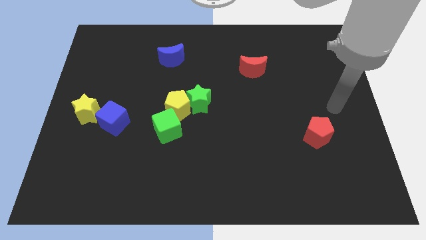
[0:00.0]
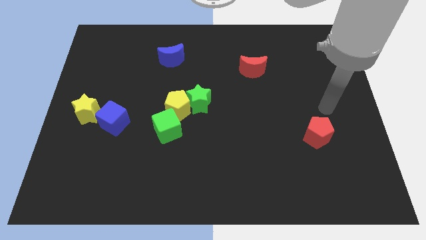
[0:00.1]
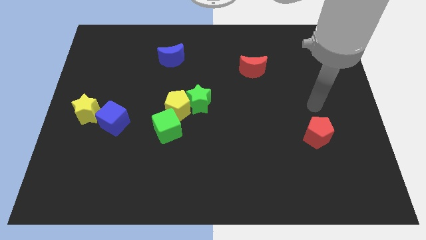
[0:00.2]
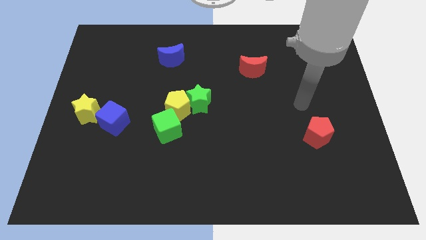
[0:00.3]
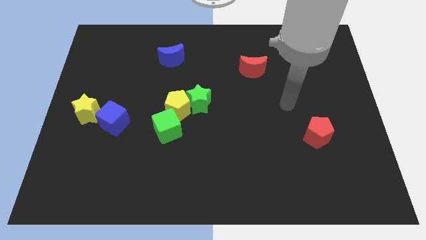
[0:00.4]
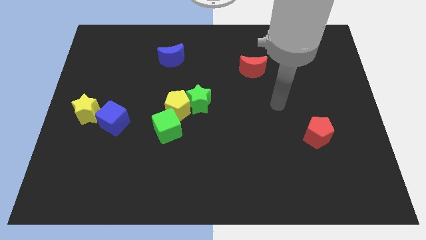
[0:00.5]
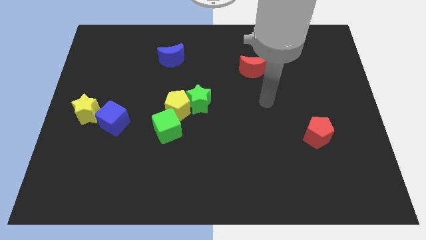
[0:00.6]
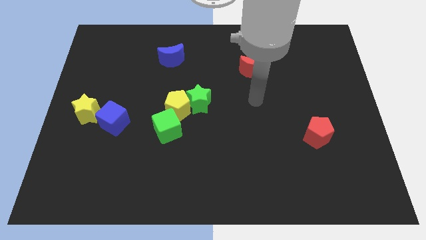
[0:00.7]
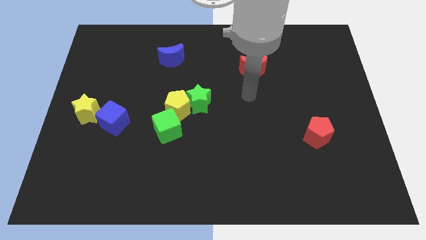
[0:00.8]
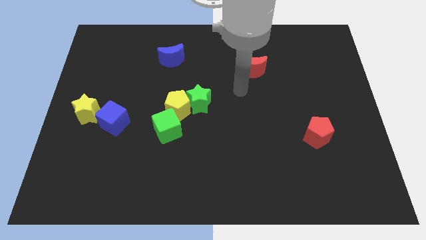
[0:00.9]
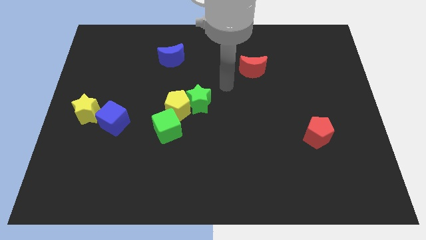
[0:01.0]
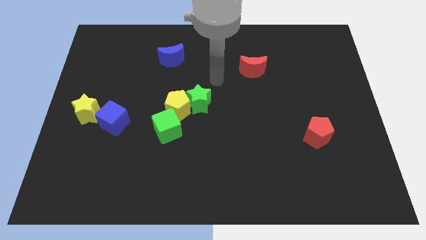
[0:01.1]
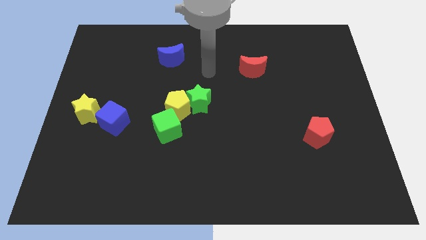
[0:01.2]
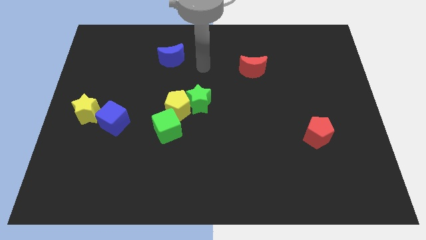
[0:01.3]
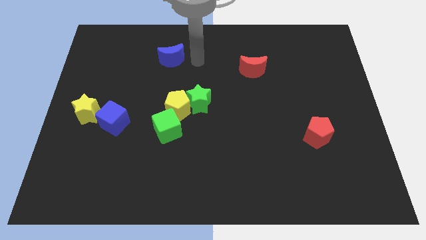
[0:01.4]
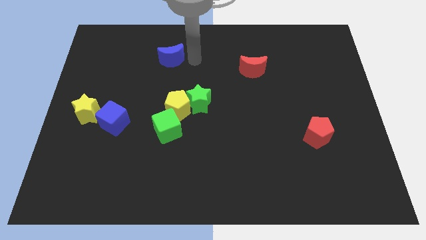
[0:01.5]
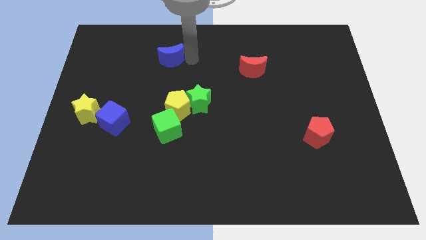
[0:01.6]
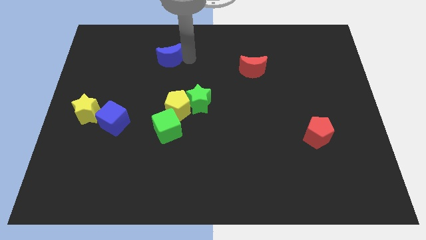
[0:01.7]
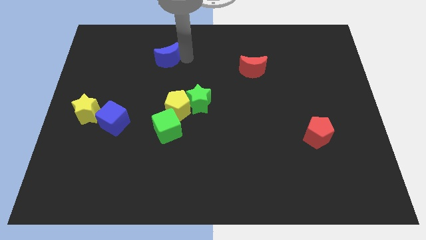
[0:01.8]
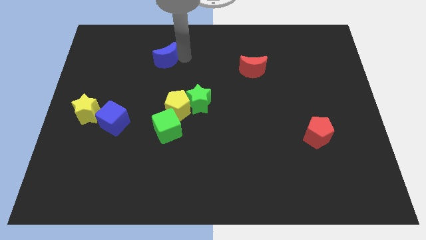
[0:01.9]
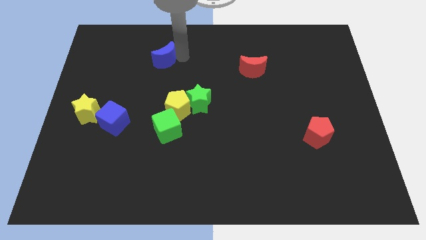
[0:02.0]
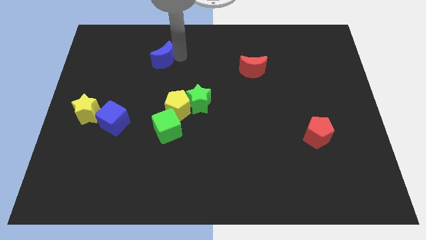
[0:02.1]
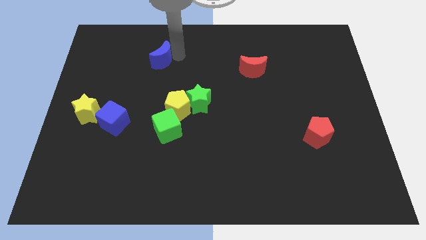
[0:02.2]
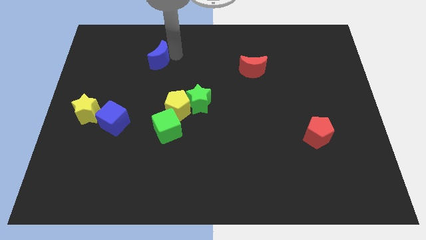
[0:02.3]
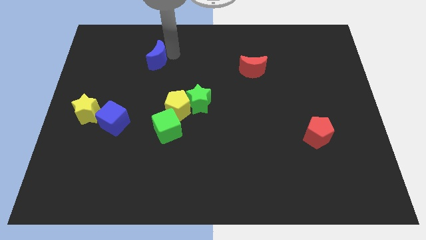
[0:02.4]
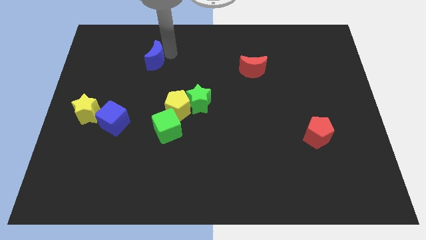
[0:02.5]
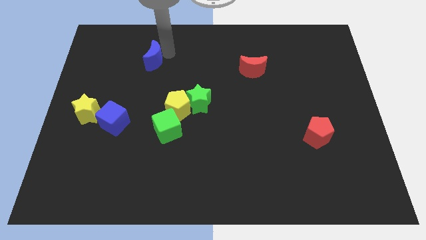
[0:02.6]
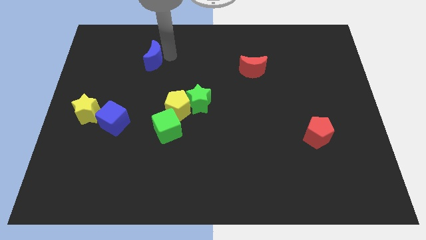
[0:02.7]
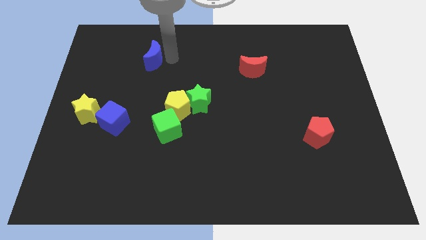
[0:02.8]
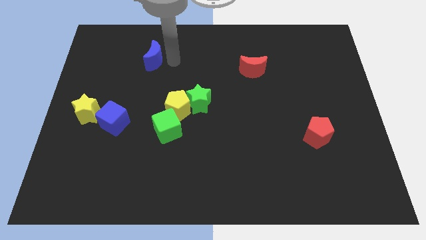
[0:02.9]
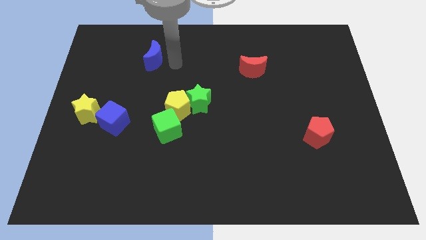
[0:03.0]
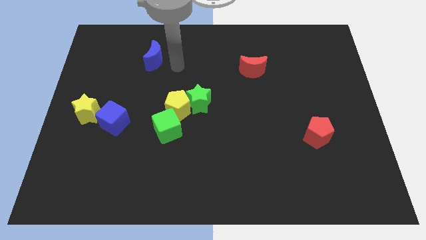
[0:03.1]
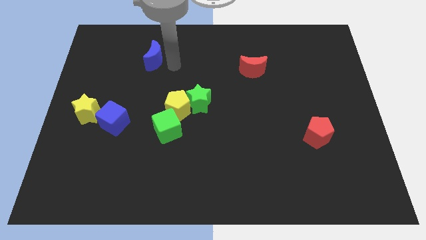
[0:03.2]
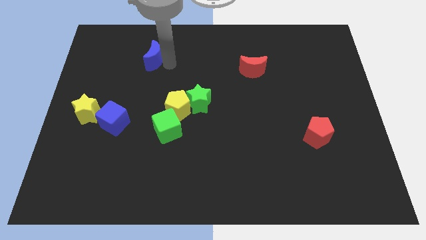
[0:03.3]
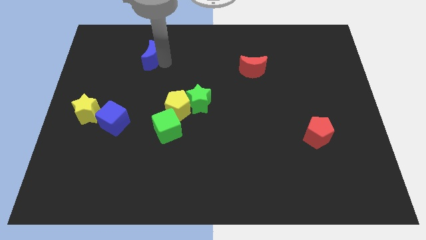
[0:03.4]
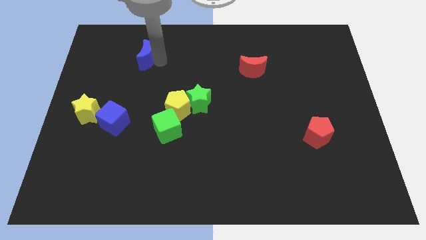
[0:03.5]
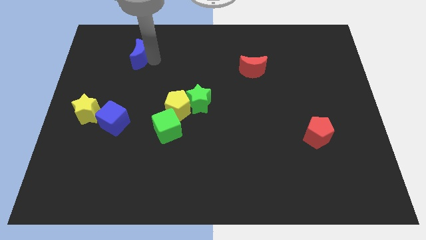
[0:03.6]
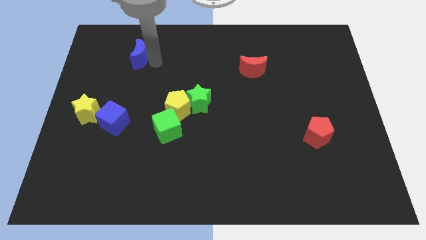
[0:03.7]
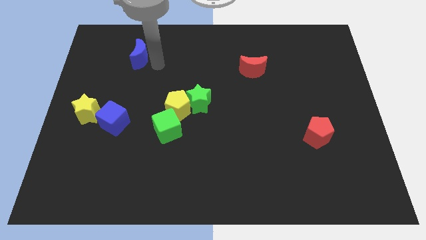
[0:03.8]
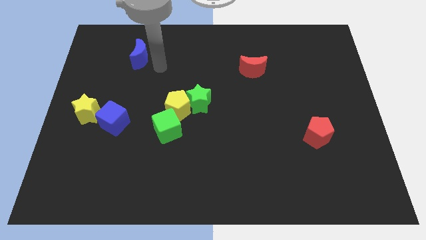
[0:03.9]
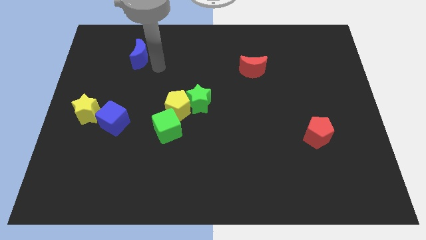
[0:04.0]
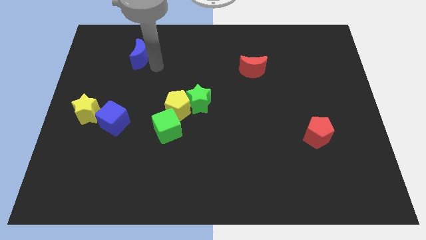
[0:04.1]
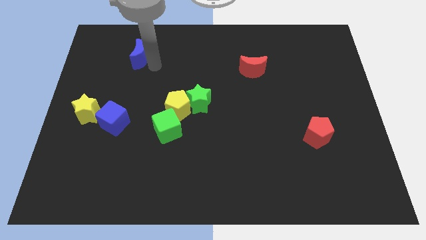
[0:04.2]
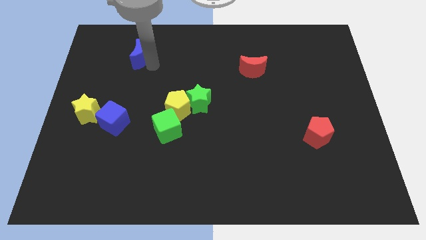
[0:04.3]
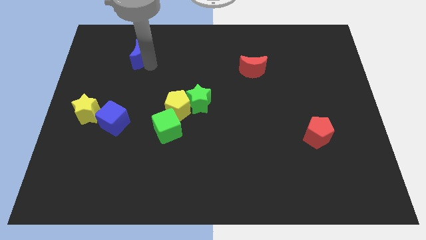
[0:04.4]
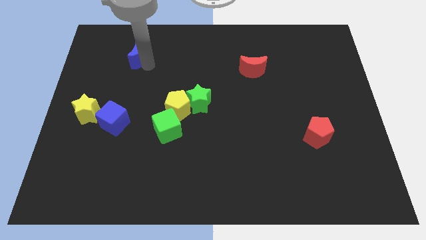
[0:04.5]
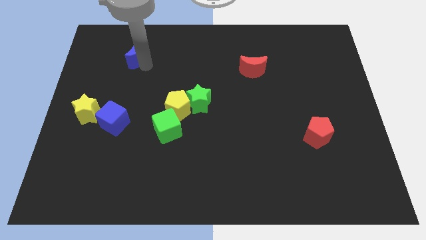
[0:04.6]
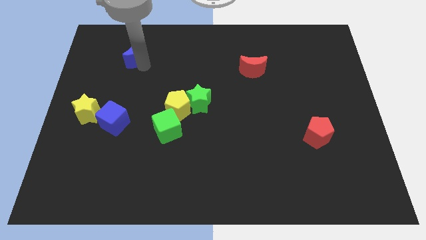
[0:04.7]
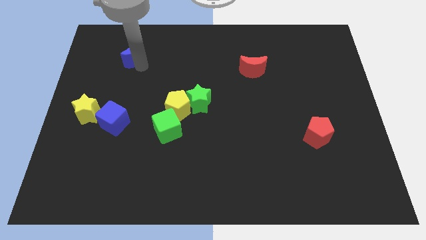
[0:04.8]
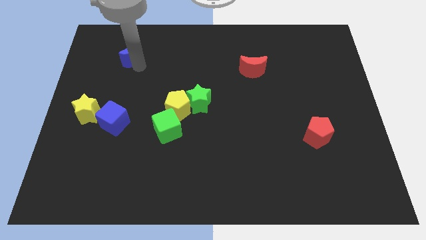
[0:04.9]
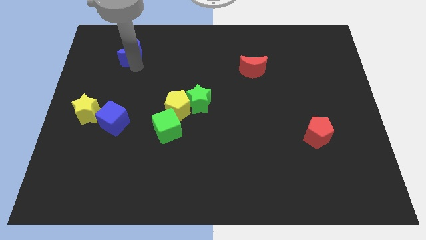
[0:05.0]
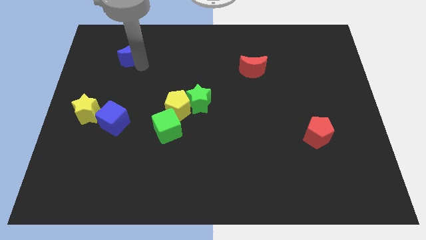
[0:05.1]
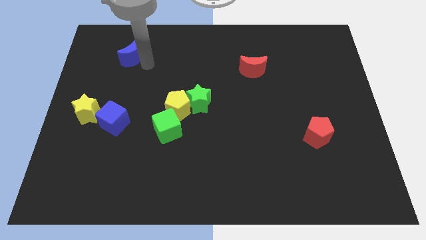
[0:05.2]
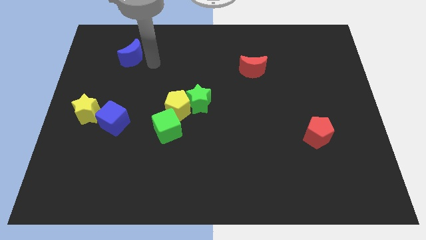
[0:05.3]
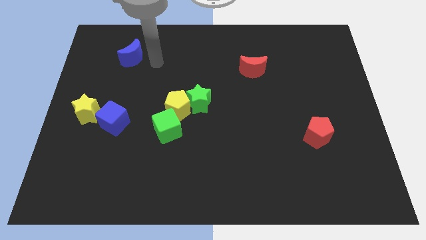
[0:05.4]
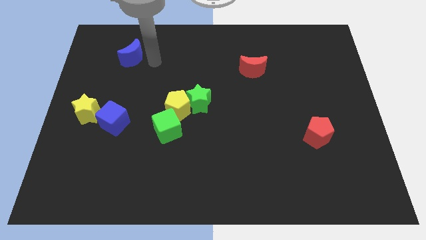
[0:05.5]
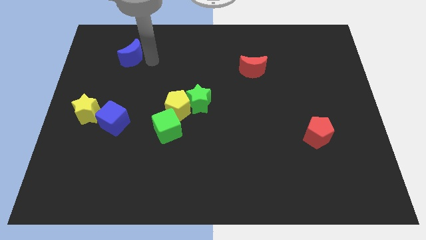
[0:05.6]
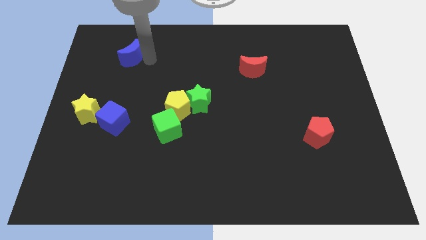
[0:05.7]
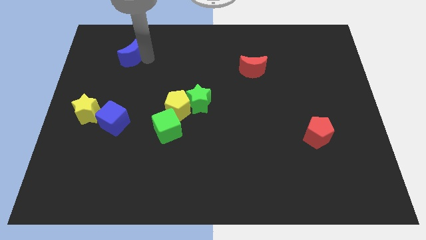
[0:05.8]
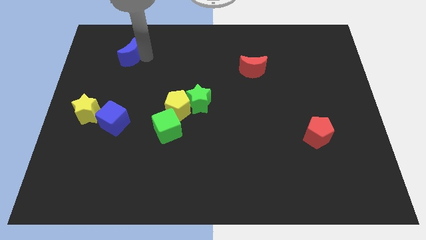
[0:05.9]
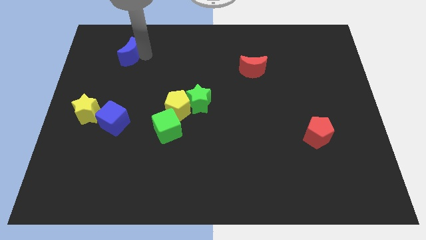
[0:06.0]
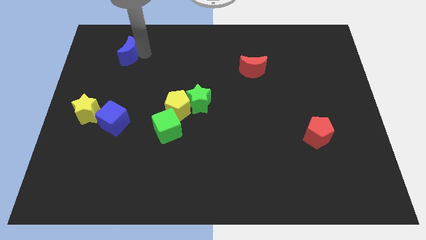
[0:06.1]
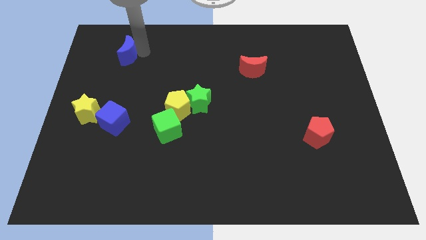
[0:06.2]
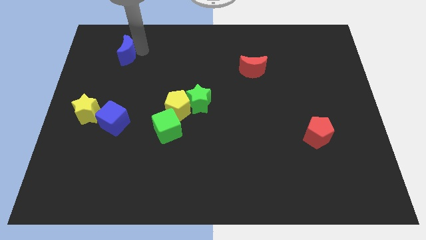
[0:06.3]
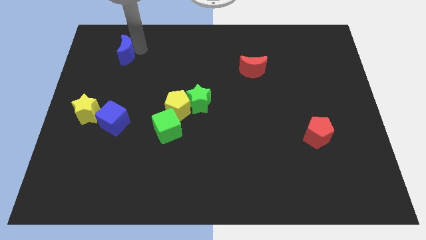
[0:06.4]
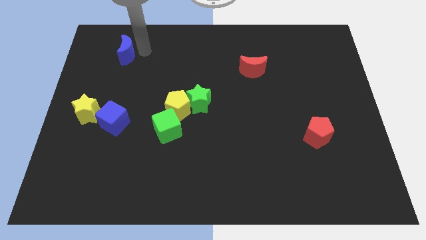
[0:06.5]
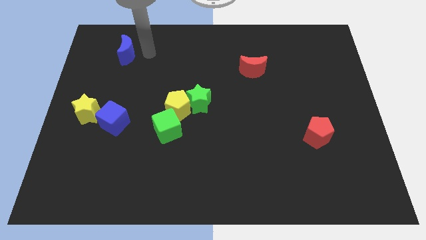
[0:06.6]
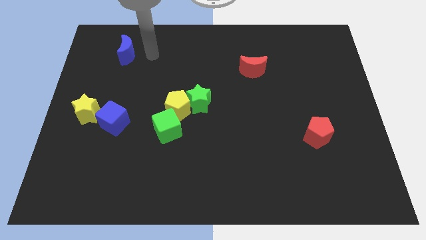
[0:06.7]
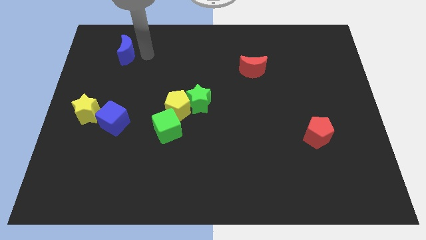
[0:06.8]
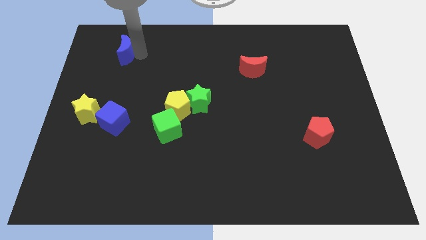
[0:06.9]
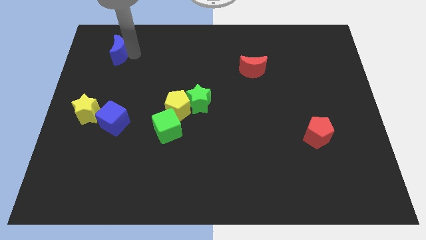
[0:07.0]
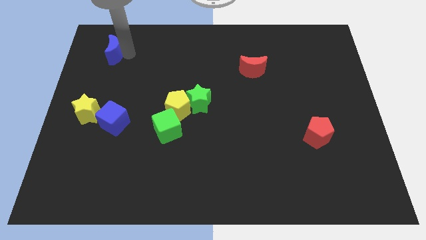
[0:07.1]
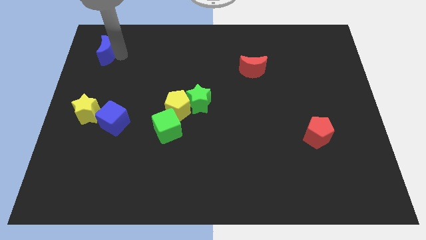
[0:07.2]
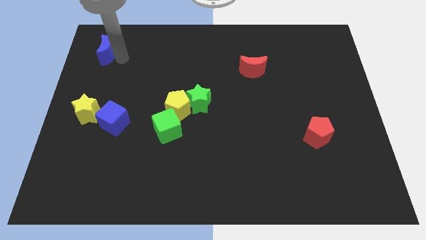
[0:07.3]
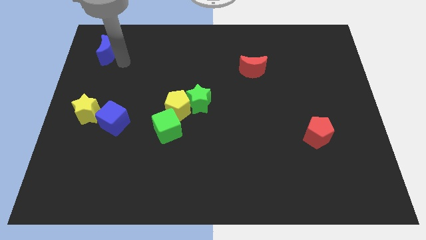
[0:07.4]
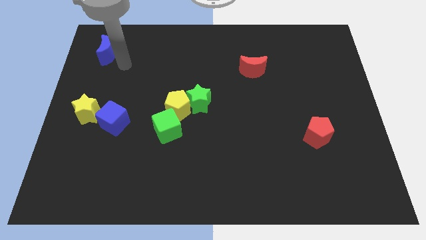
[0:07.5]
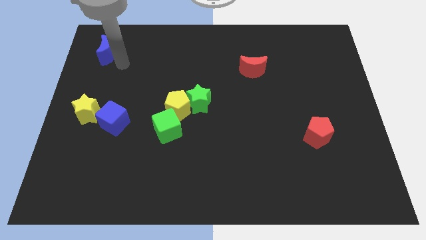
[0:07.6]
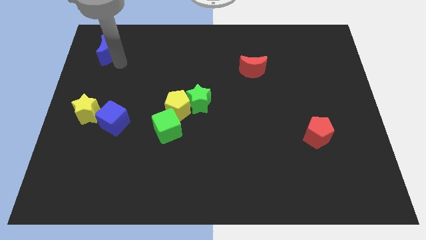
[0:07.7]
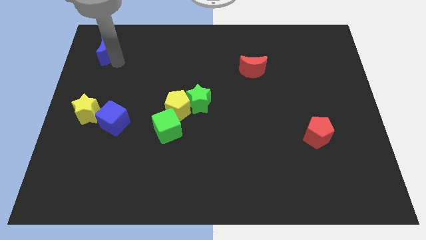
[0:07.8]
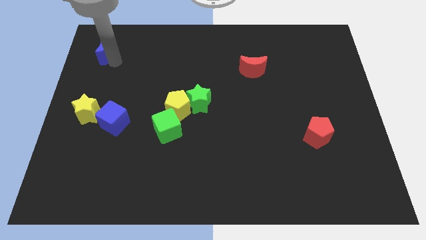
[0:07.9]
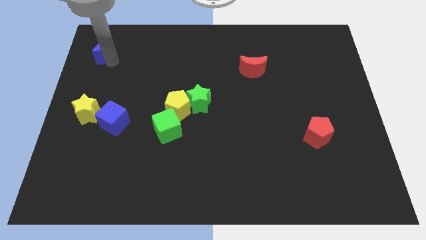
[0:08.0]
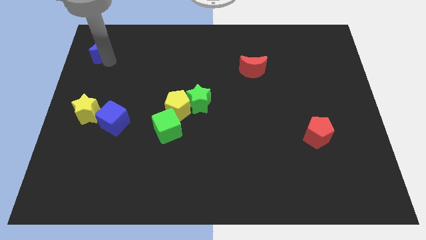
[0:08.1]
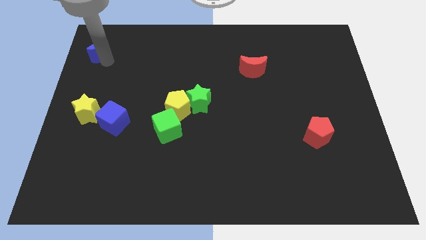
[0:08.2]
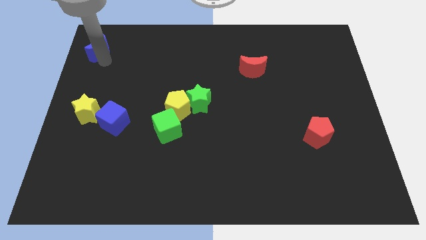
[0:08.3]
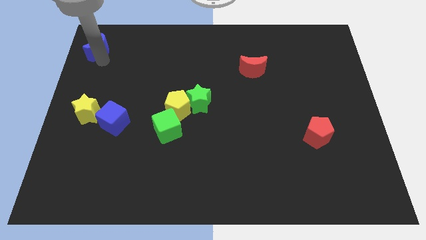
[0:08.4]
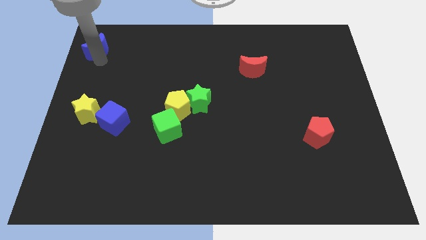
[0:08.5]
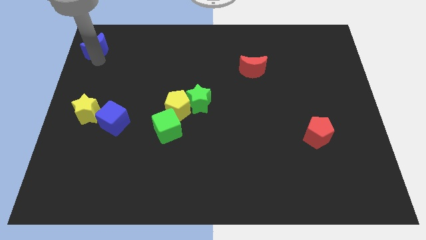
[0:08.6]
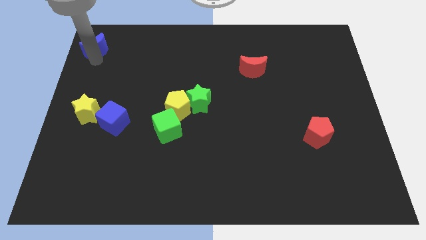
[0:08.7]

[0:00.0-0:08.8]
push the blue moon to the upper left corner
